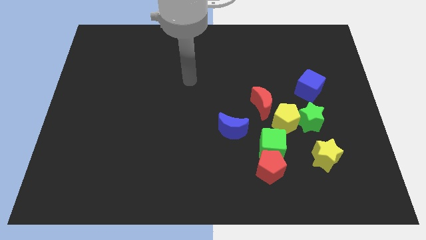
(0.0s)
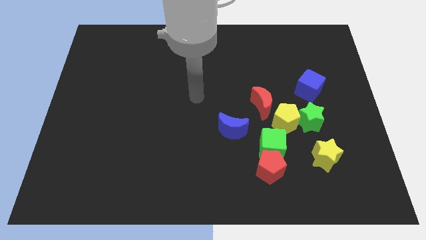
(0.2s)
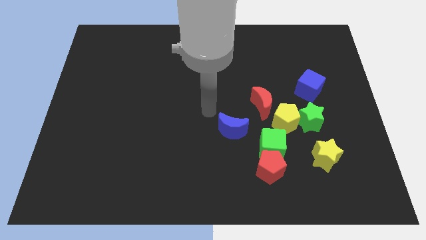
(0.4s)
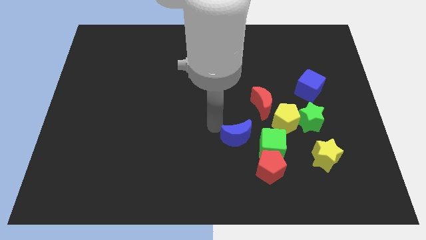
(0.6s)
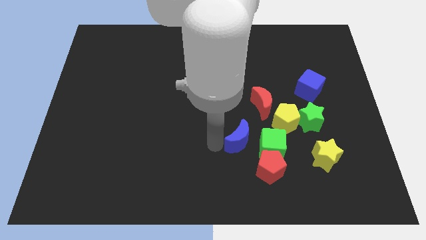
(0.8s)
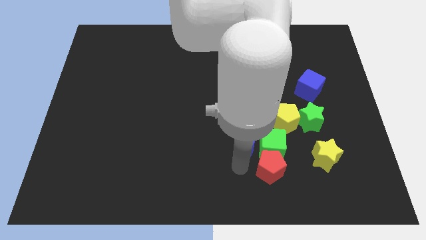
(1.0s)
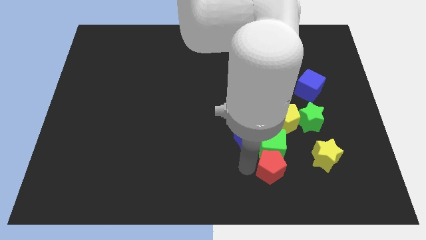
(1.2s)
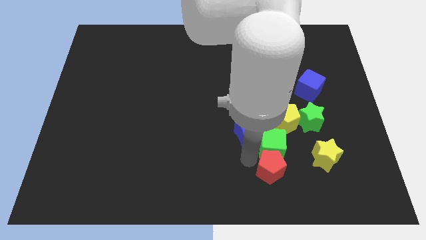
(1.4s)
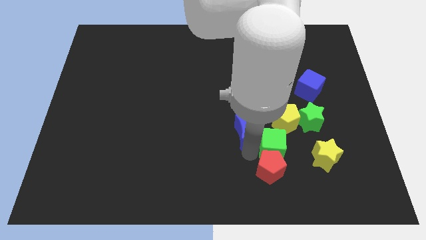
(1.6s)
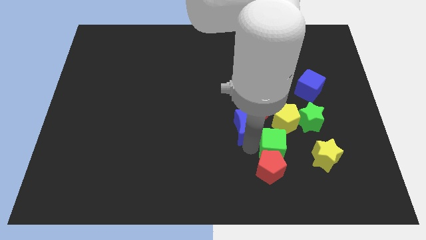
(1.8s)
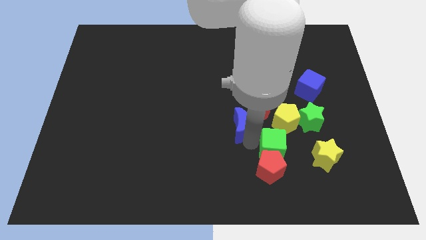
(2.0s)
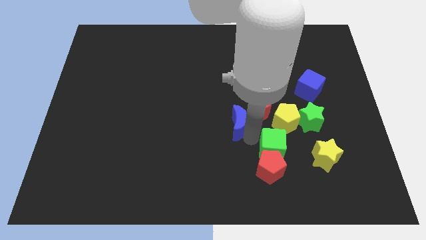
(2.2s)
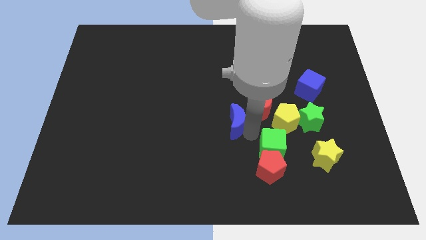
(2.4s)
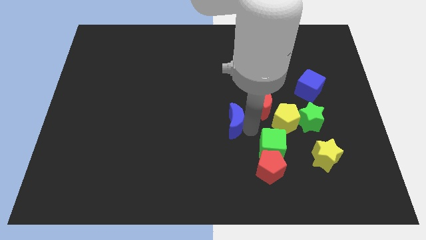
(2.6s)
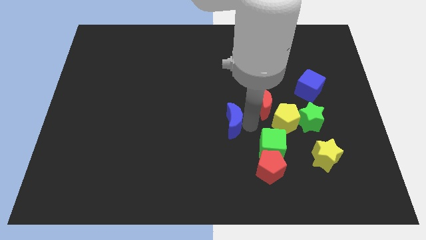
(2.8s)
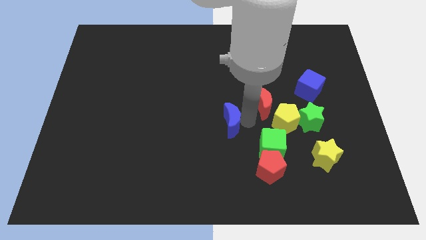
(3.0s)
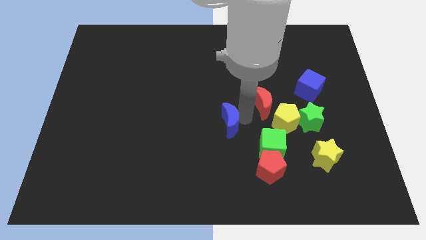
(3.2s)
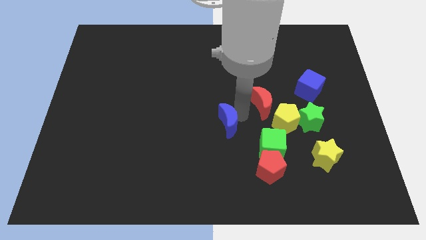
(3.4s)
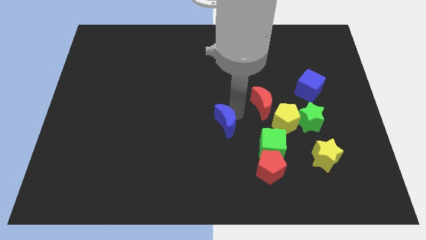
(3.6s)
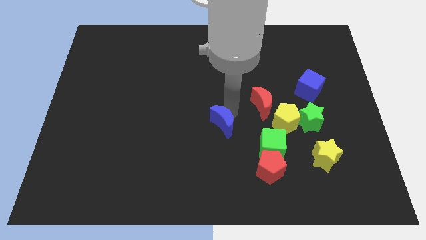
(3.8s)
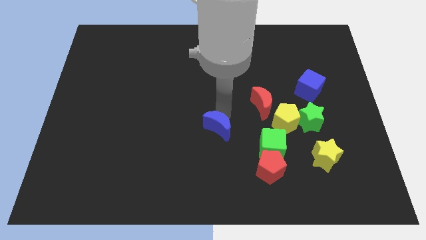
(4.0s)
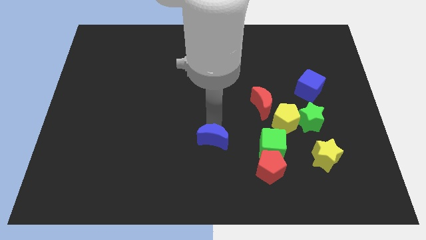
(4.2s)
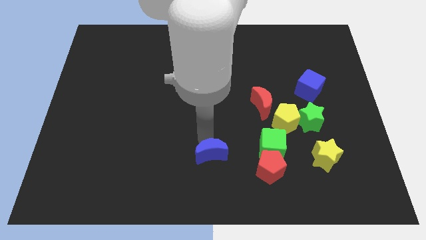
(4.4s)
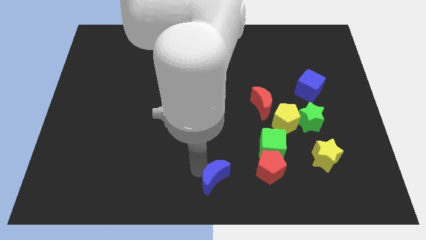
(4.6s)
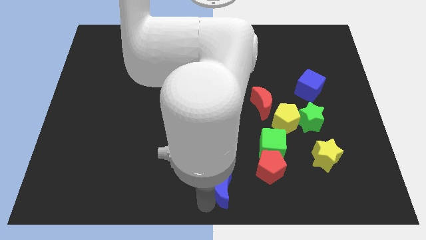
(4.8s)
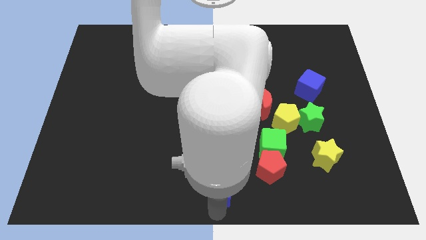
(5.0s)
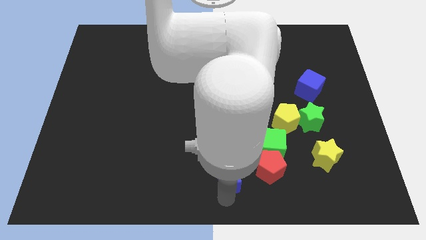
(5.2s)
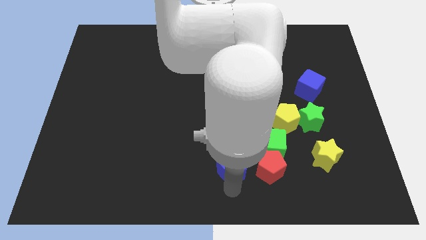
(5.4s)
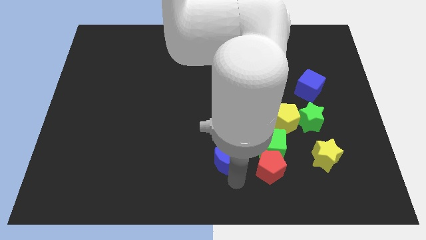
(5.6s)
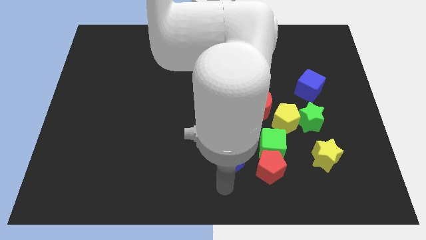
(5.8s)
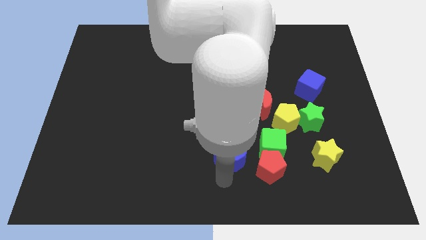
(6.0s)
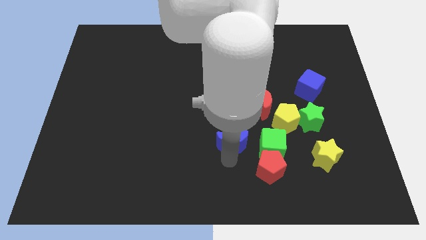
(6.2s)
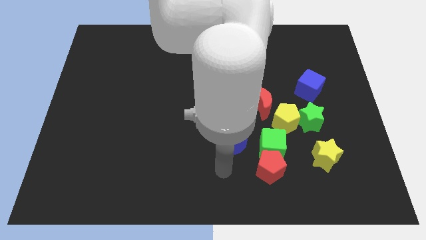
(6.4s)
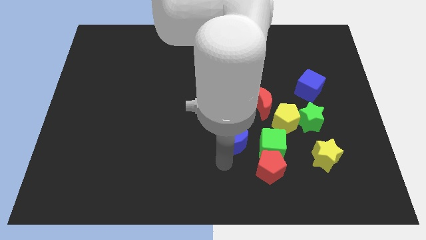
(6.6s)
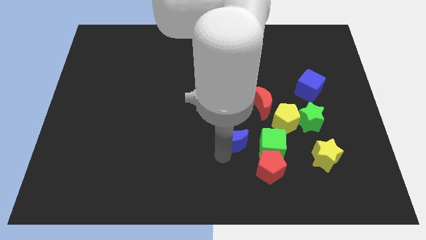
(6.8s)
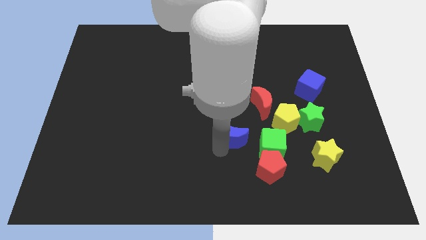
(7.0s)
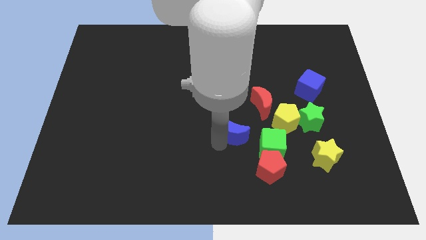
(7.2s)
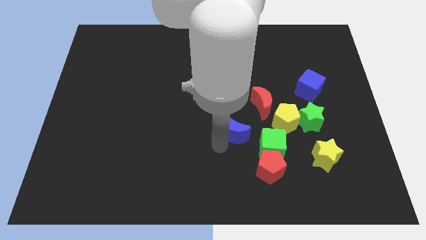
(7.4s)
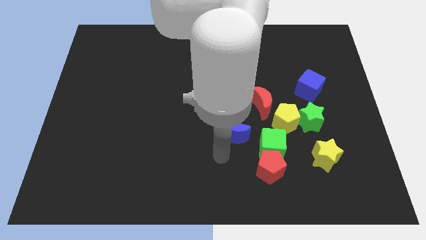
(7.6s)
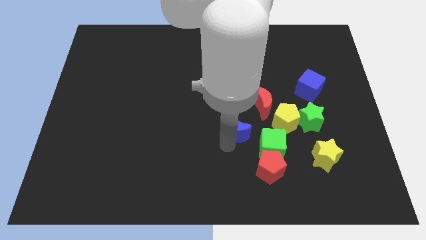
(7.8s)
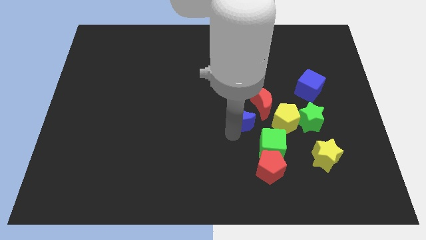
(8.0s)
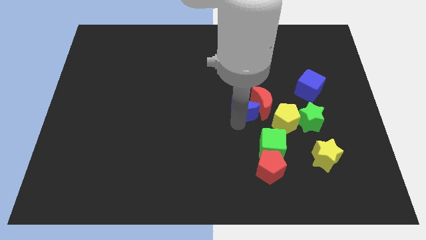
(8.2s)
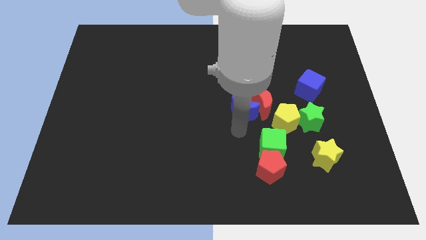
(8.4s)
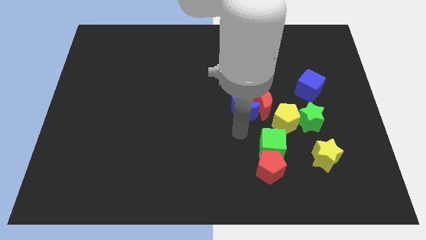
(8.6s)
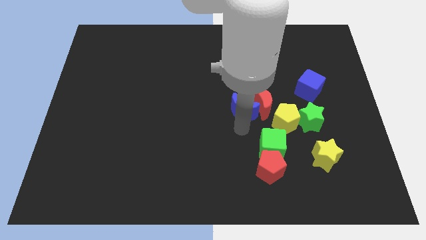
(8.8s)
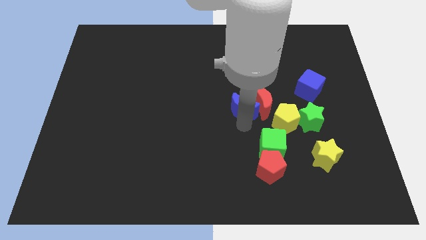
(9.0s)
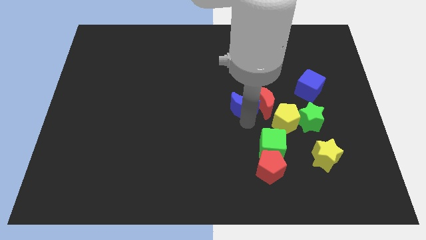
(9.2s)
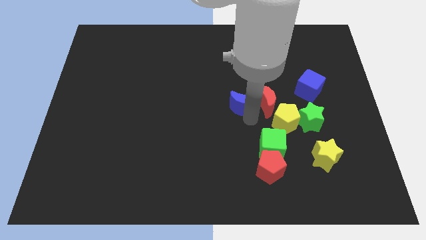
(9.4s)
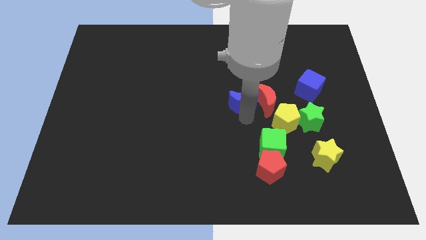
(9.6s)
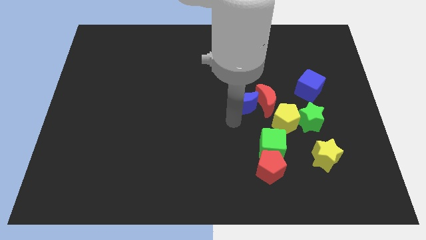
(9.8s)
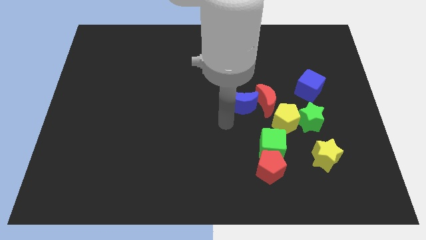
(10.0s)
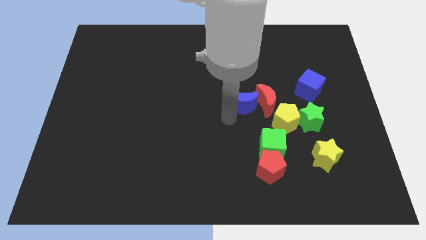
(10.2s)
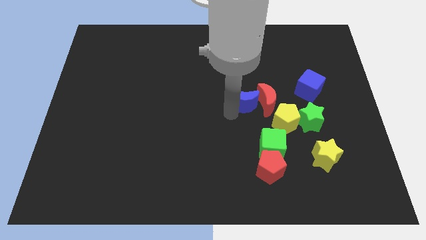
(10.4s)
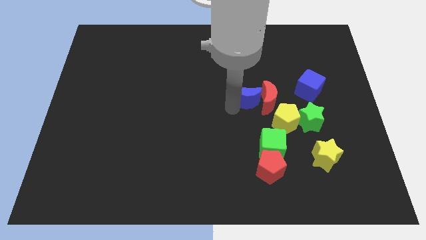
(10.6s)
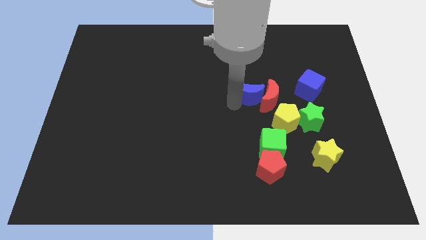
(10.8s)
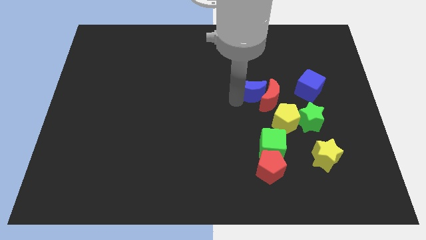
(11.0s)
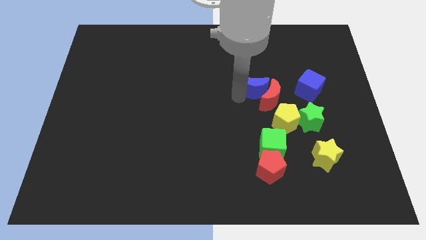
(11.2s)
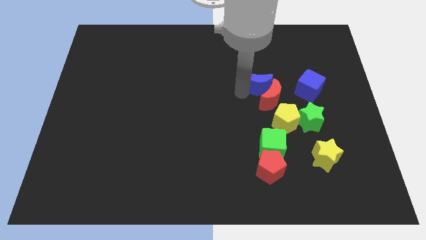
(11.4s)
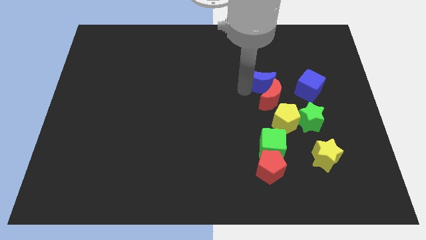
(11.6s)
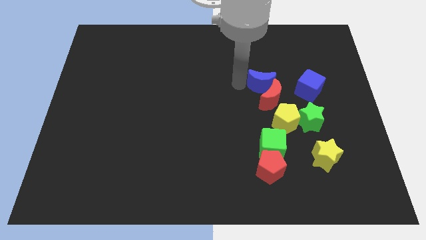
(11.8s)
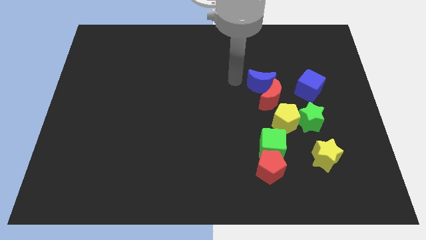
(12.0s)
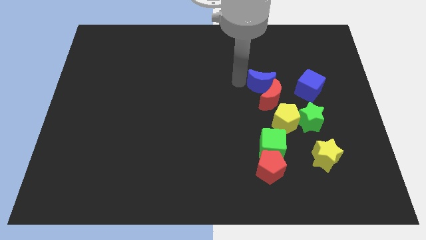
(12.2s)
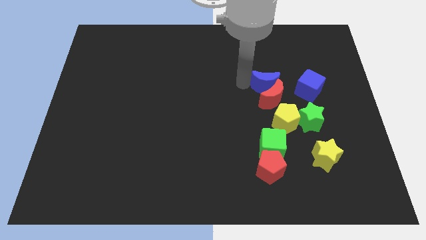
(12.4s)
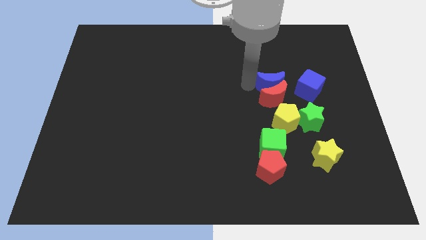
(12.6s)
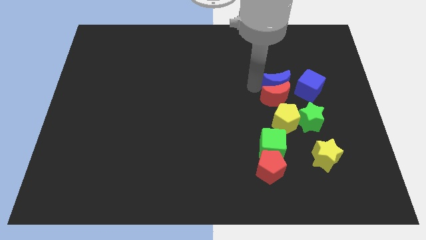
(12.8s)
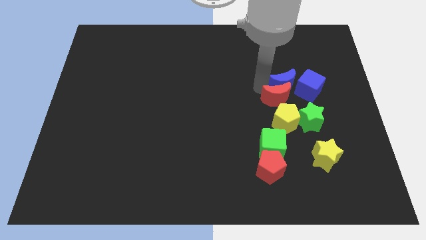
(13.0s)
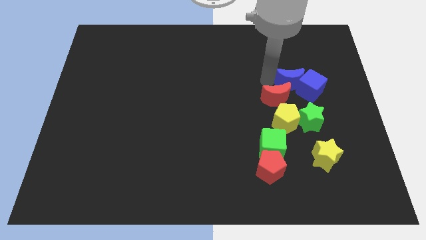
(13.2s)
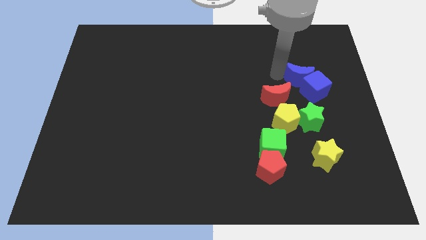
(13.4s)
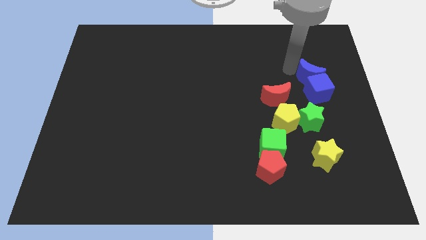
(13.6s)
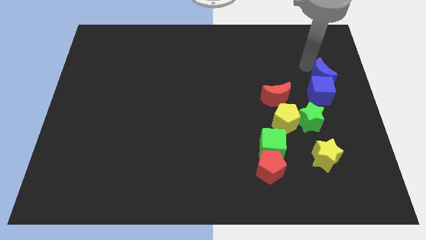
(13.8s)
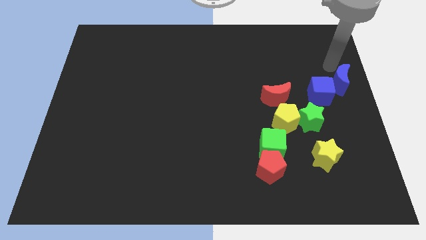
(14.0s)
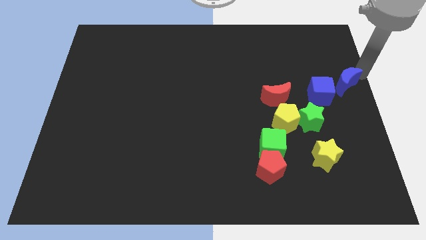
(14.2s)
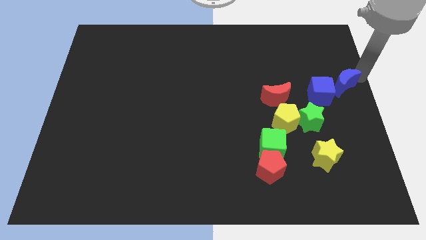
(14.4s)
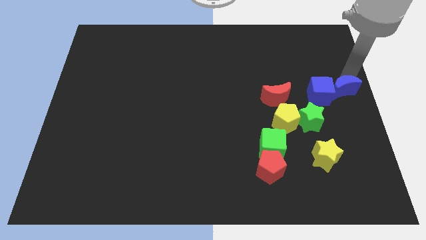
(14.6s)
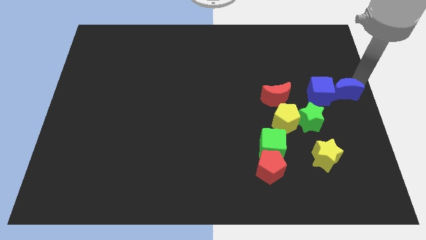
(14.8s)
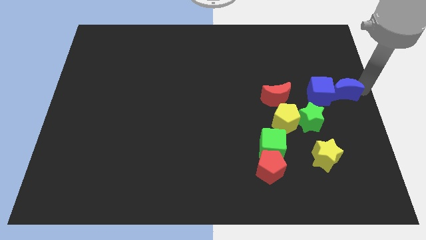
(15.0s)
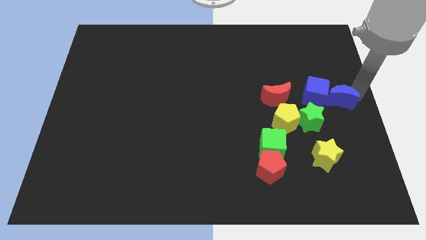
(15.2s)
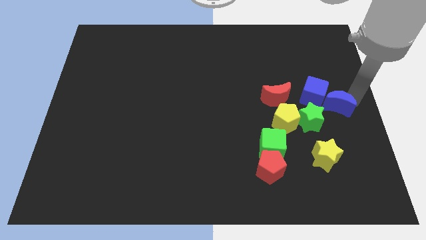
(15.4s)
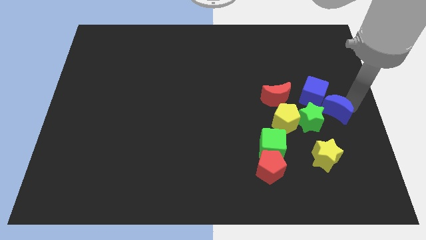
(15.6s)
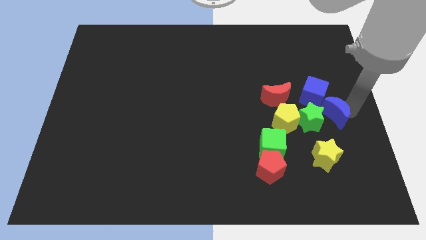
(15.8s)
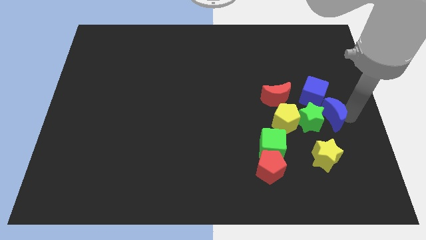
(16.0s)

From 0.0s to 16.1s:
move the blue moon next to the green star
